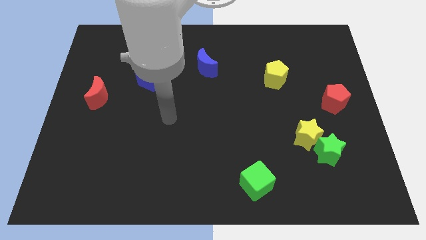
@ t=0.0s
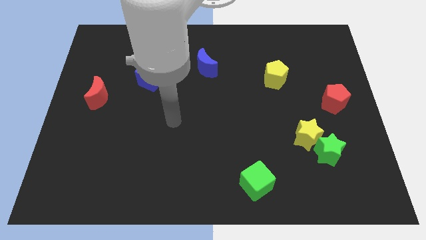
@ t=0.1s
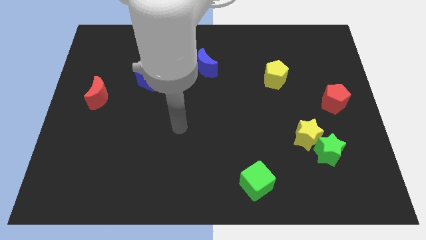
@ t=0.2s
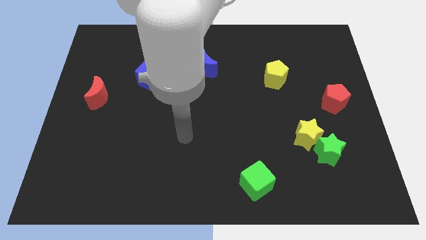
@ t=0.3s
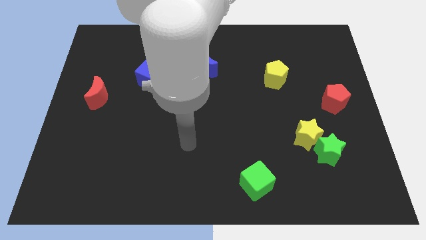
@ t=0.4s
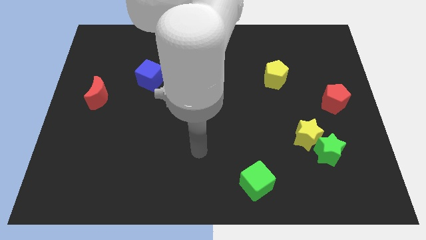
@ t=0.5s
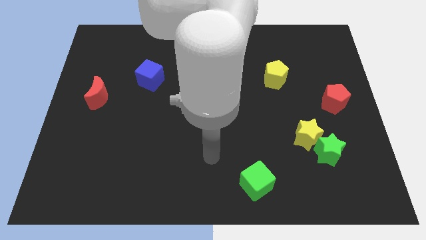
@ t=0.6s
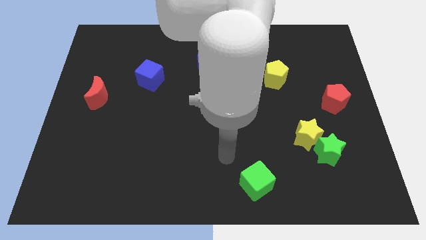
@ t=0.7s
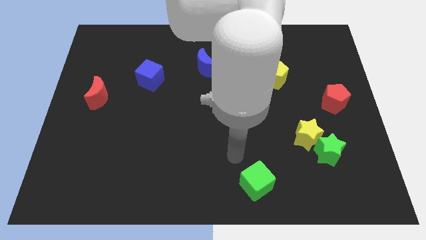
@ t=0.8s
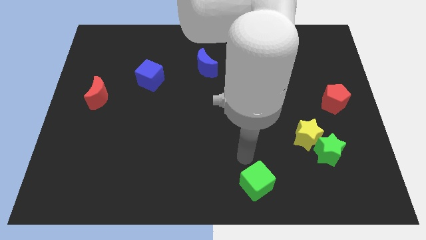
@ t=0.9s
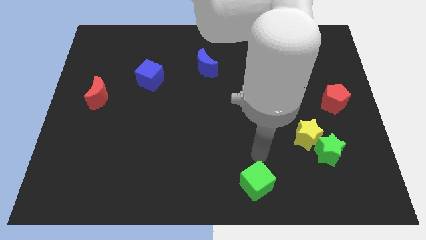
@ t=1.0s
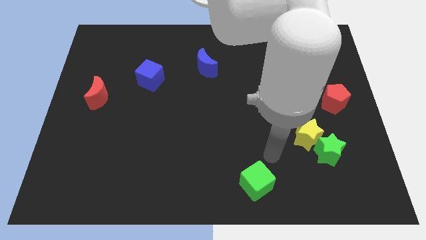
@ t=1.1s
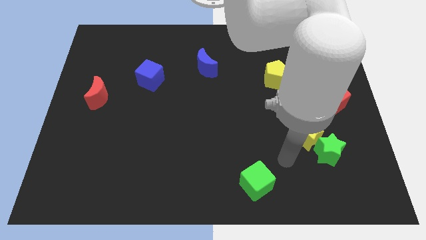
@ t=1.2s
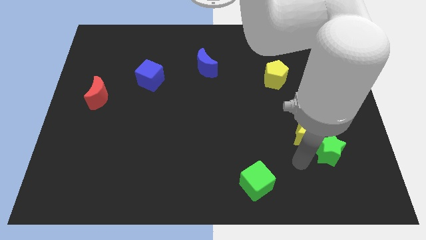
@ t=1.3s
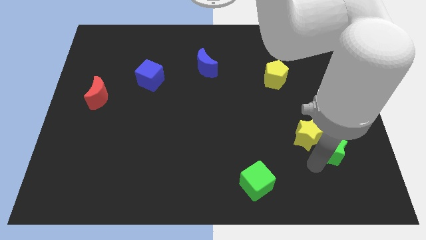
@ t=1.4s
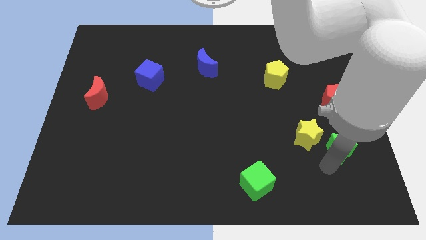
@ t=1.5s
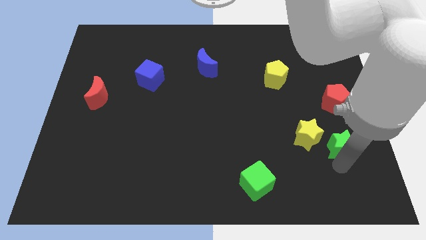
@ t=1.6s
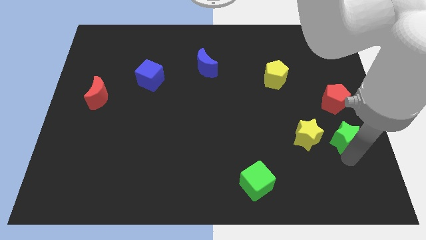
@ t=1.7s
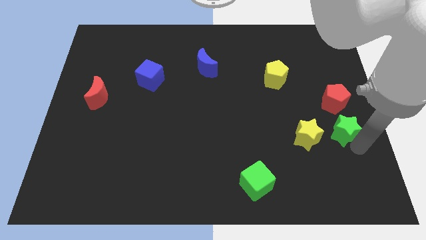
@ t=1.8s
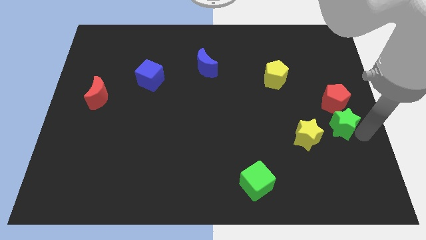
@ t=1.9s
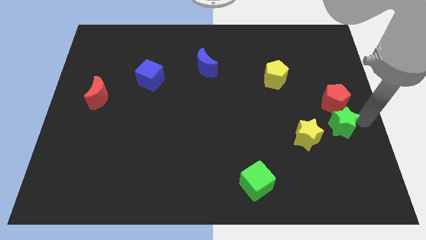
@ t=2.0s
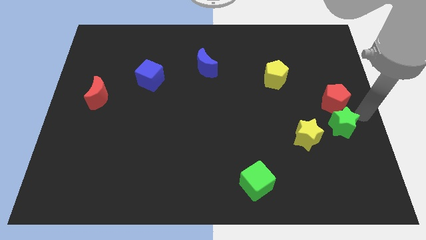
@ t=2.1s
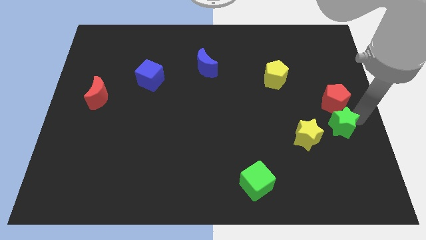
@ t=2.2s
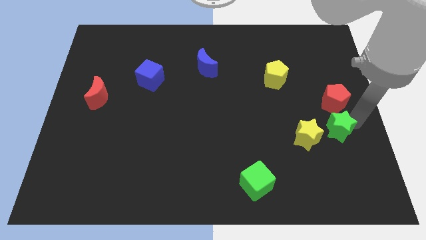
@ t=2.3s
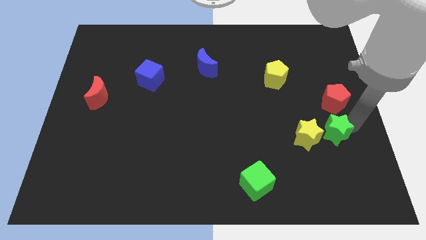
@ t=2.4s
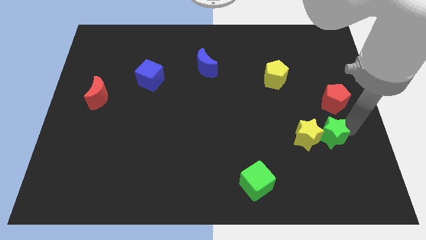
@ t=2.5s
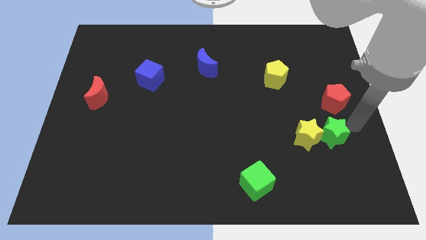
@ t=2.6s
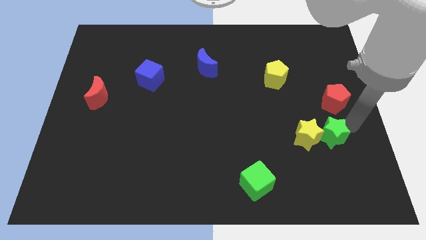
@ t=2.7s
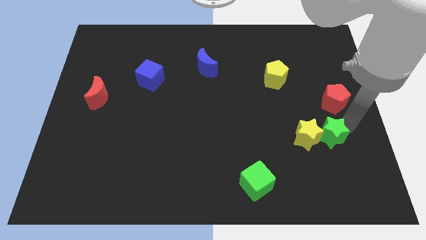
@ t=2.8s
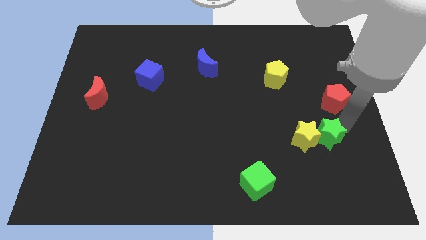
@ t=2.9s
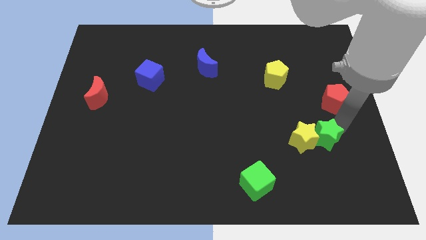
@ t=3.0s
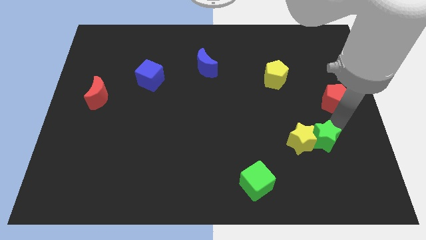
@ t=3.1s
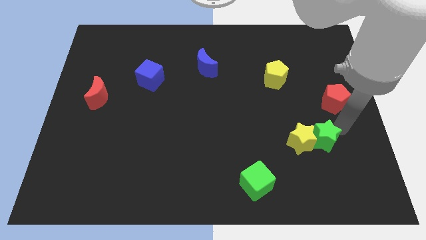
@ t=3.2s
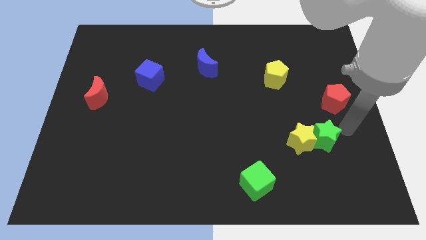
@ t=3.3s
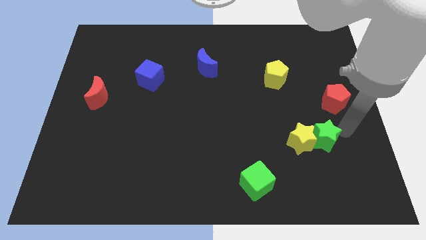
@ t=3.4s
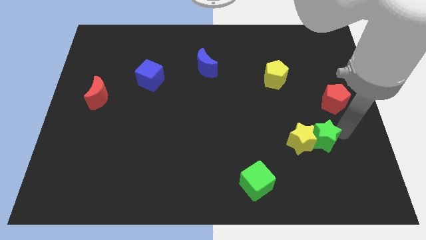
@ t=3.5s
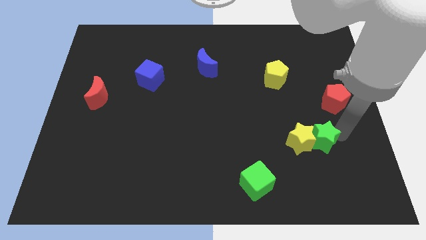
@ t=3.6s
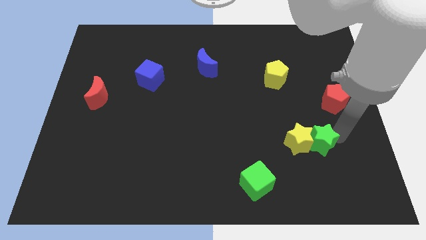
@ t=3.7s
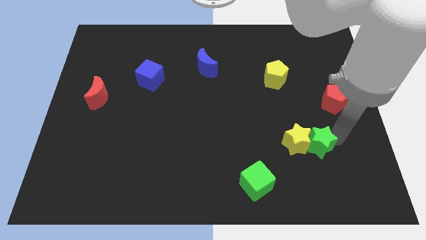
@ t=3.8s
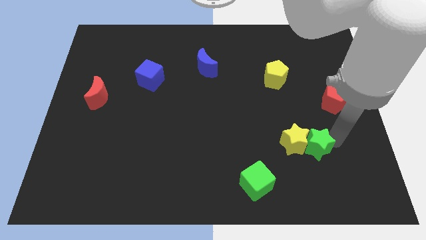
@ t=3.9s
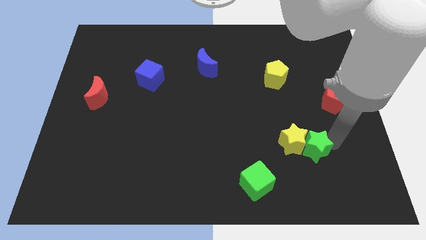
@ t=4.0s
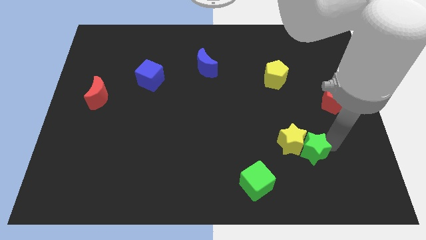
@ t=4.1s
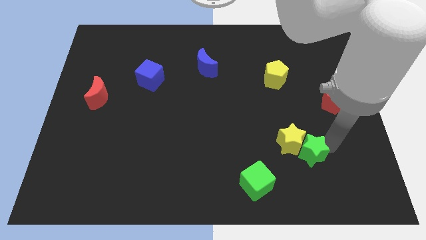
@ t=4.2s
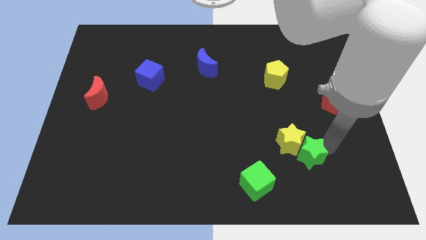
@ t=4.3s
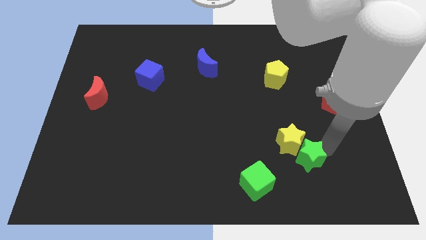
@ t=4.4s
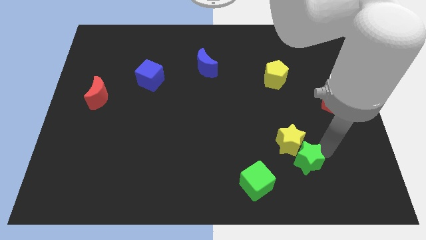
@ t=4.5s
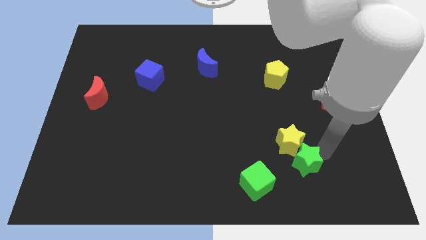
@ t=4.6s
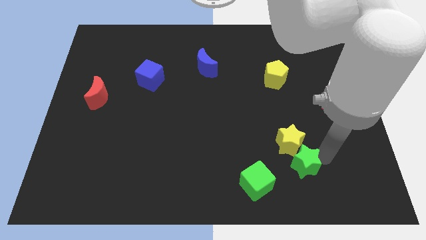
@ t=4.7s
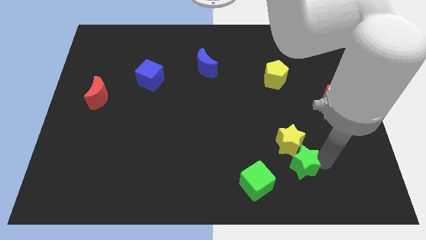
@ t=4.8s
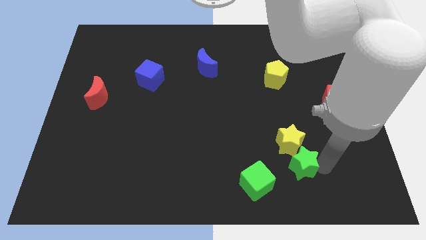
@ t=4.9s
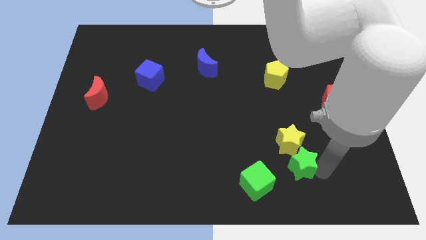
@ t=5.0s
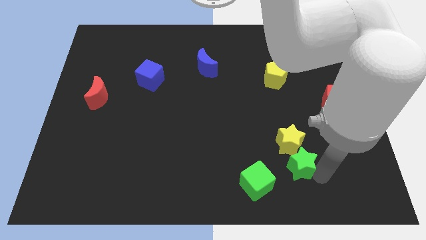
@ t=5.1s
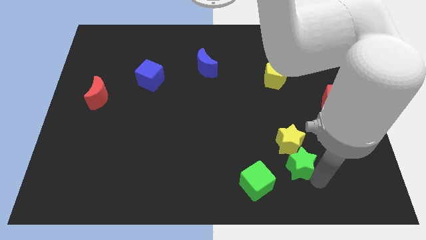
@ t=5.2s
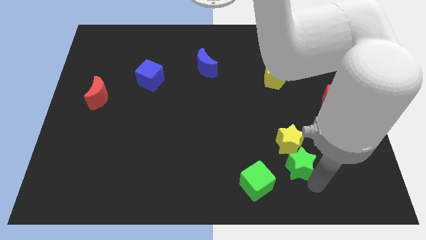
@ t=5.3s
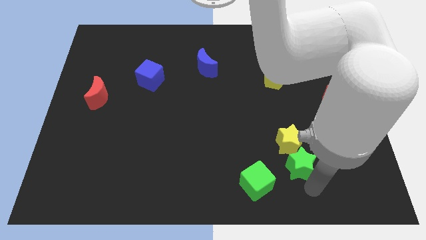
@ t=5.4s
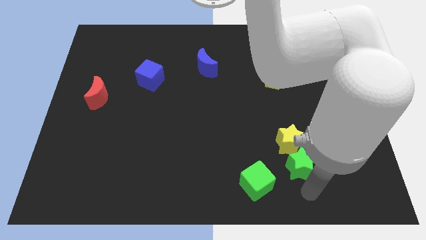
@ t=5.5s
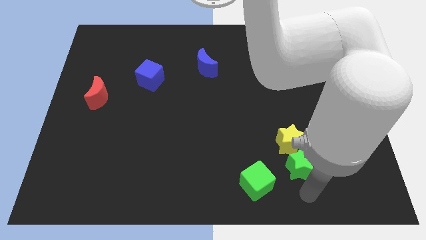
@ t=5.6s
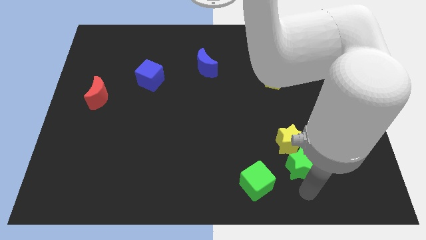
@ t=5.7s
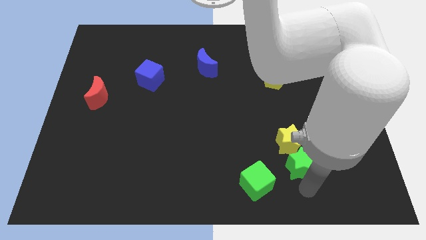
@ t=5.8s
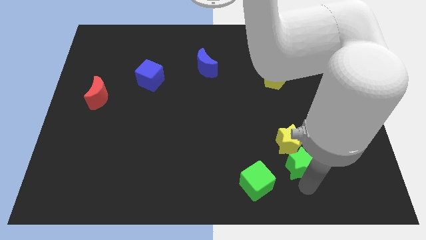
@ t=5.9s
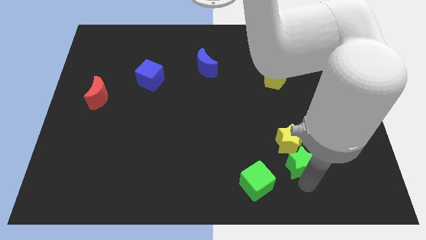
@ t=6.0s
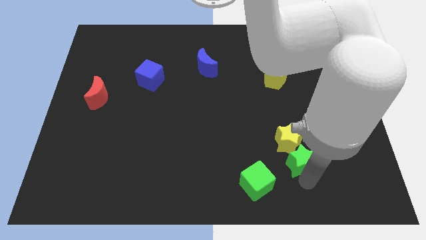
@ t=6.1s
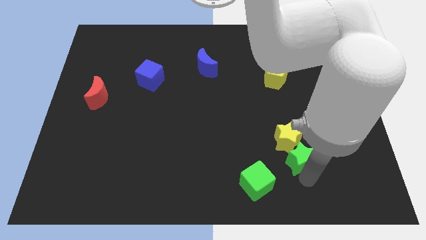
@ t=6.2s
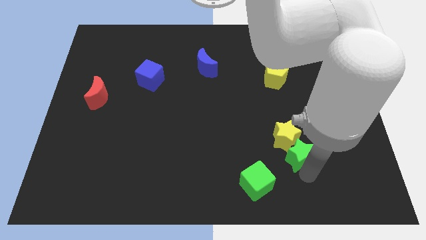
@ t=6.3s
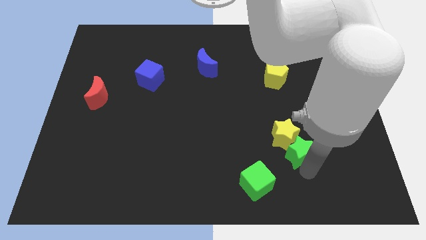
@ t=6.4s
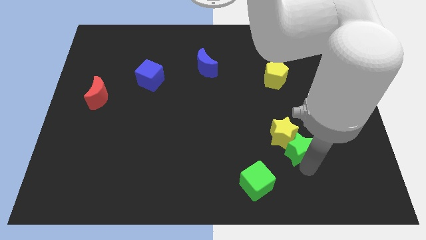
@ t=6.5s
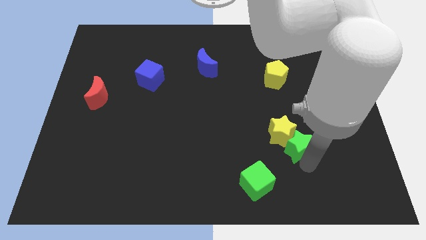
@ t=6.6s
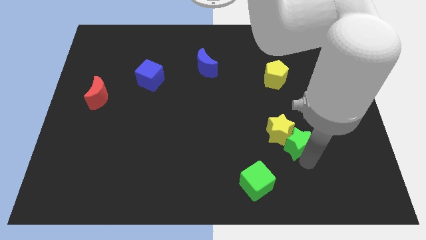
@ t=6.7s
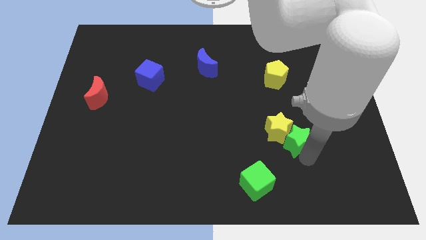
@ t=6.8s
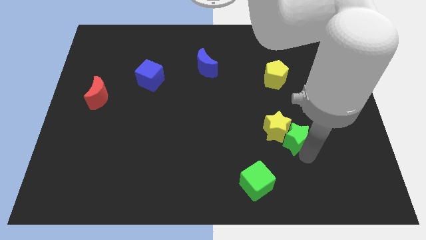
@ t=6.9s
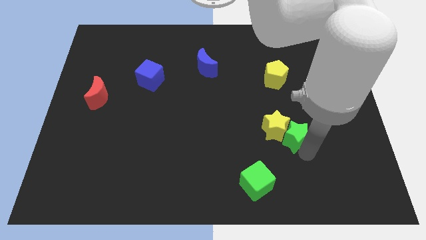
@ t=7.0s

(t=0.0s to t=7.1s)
push the green star upwards and then left a bit

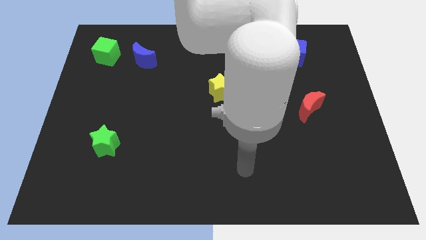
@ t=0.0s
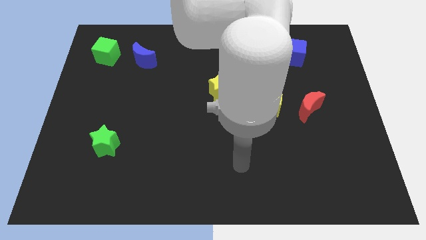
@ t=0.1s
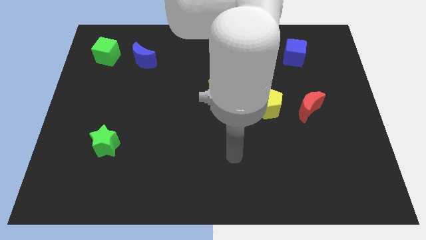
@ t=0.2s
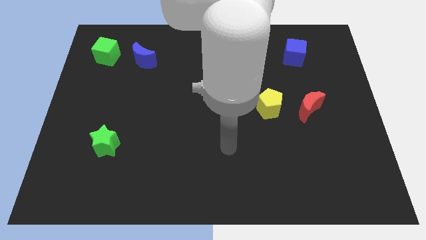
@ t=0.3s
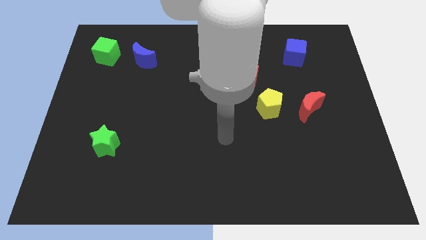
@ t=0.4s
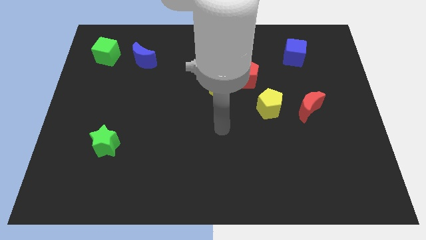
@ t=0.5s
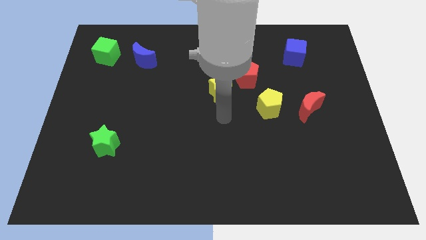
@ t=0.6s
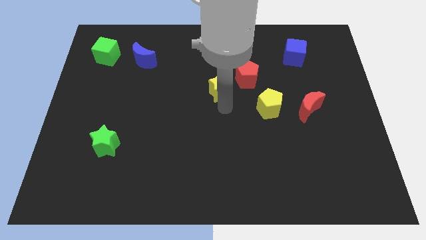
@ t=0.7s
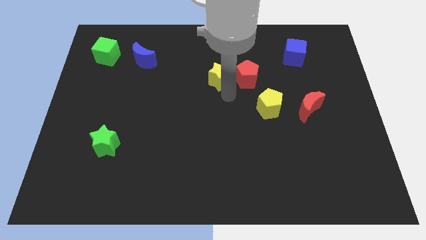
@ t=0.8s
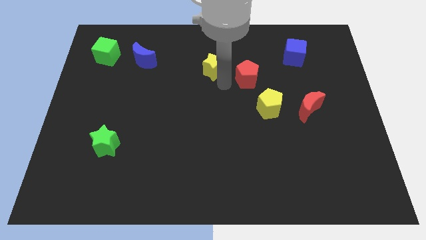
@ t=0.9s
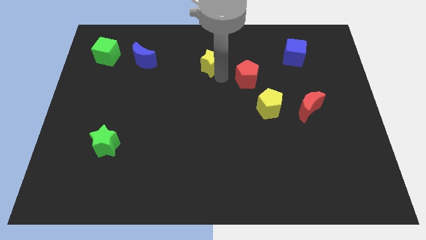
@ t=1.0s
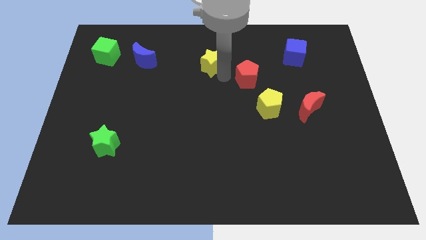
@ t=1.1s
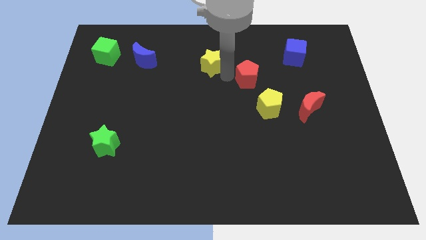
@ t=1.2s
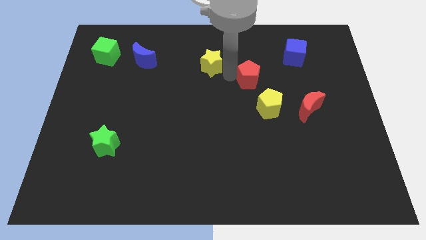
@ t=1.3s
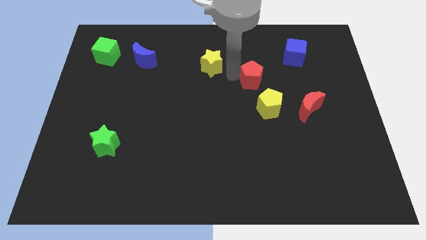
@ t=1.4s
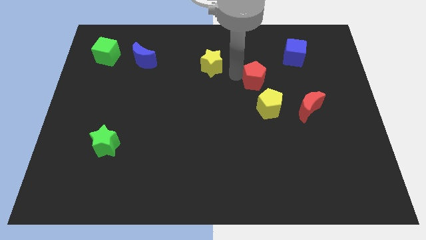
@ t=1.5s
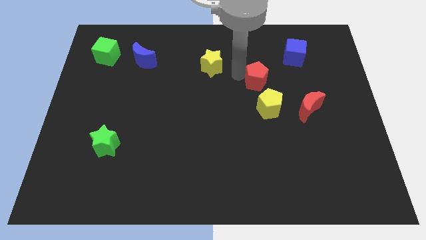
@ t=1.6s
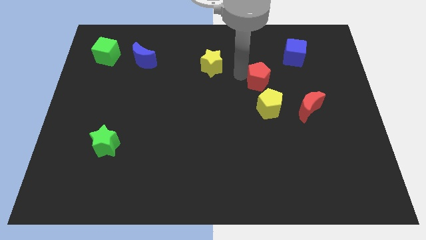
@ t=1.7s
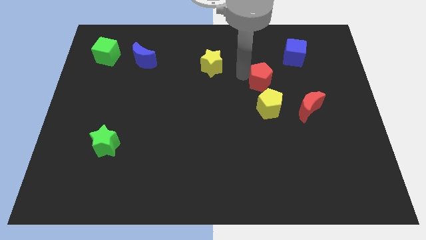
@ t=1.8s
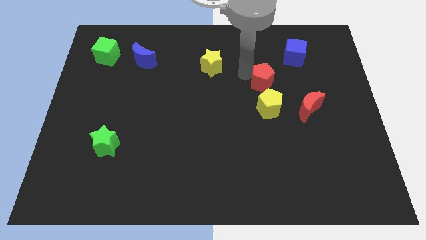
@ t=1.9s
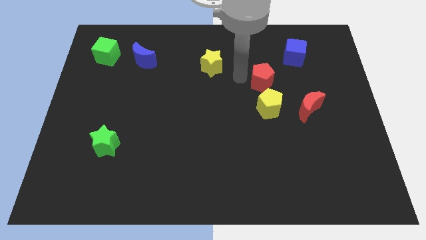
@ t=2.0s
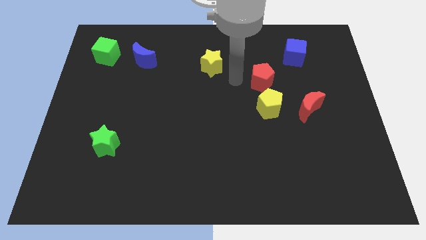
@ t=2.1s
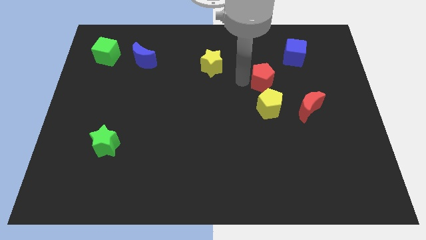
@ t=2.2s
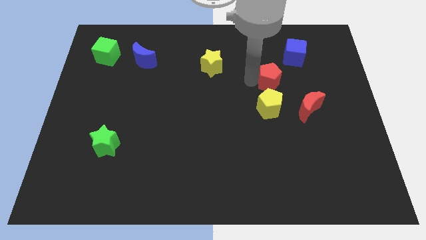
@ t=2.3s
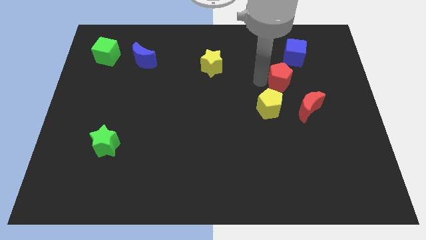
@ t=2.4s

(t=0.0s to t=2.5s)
push the red pentagon to the right a bit
